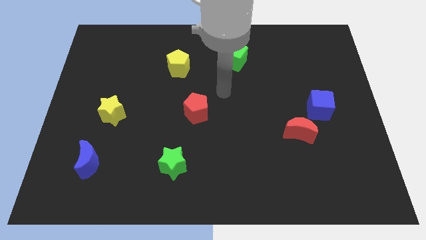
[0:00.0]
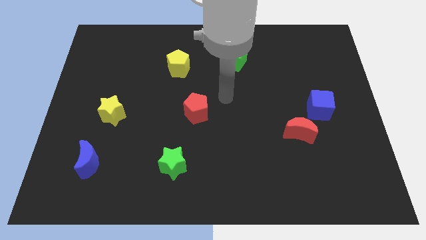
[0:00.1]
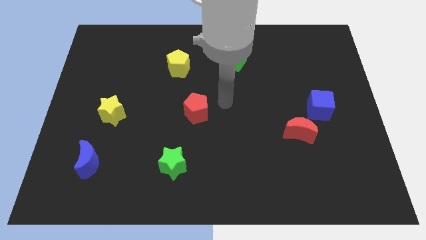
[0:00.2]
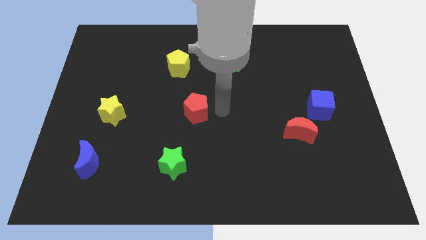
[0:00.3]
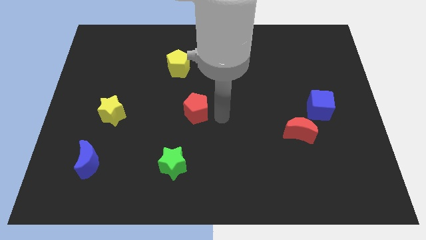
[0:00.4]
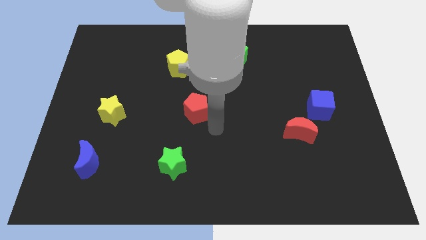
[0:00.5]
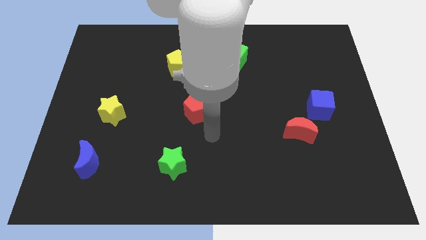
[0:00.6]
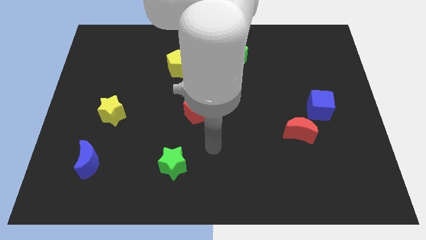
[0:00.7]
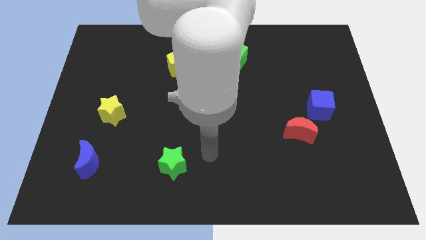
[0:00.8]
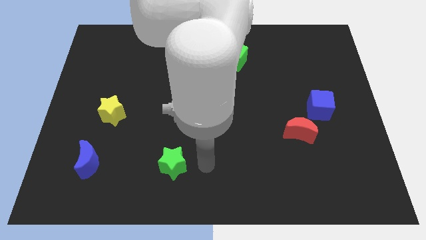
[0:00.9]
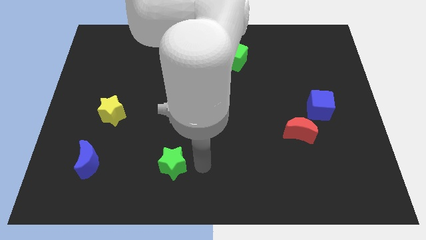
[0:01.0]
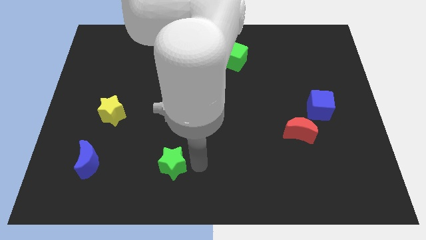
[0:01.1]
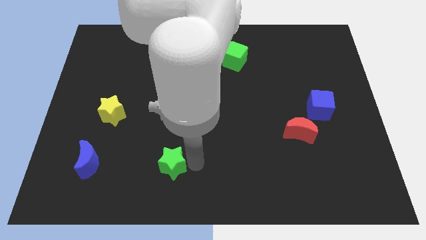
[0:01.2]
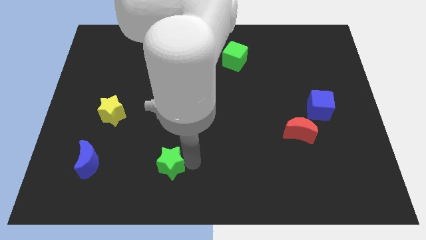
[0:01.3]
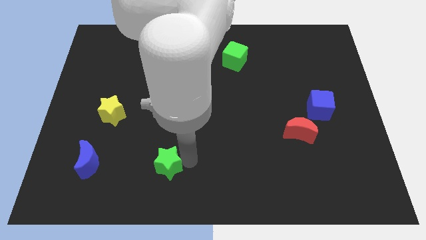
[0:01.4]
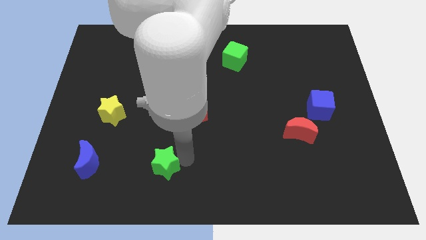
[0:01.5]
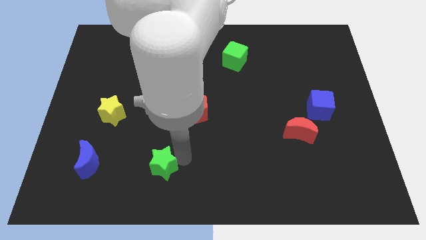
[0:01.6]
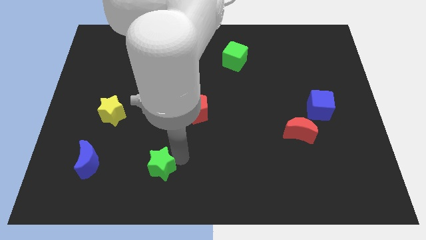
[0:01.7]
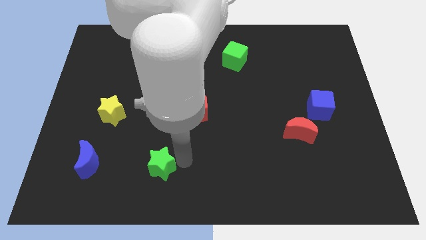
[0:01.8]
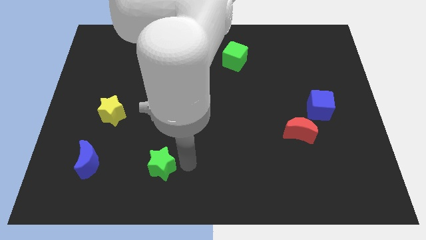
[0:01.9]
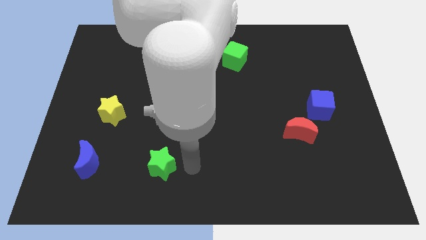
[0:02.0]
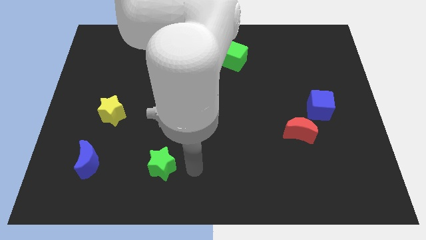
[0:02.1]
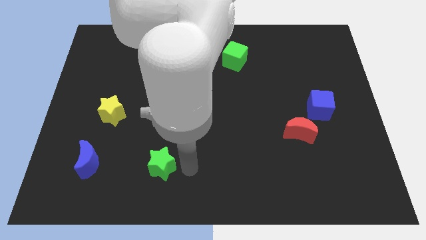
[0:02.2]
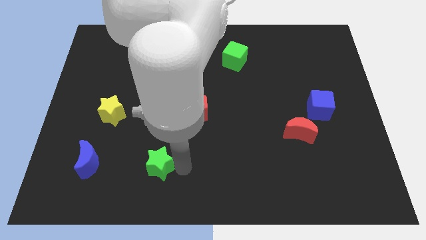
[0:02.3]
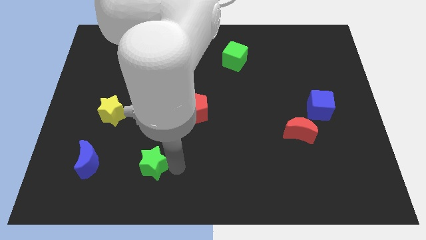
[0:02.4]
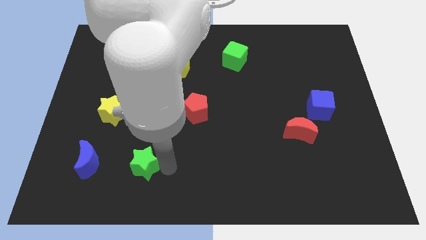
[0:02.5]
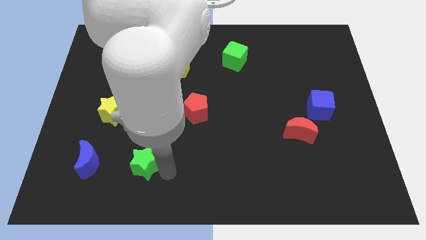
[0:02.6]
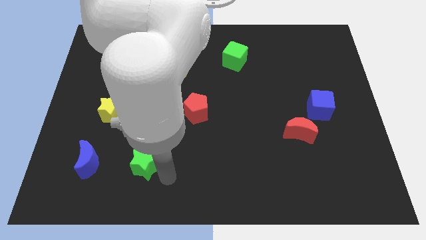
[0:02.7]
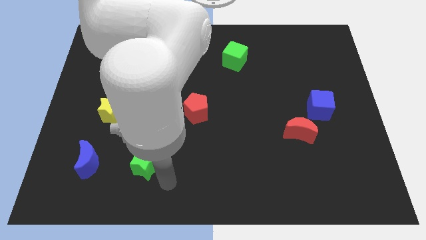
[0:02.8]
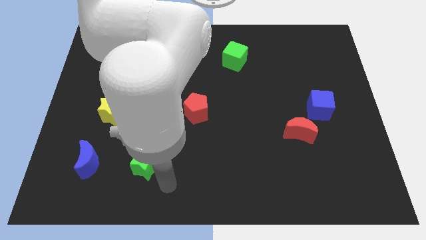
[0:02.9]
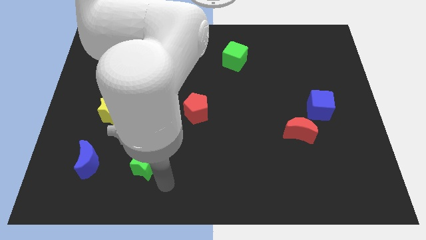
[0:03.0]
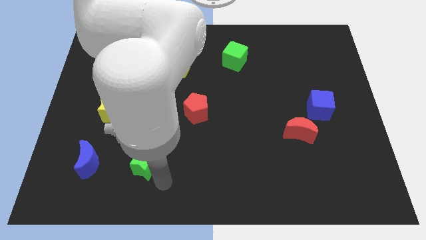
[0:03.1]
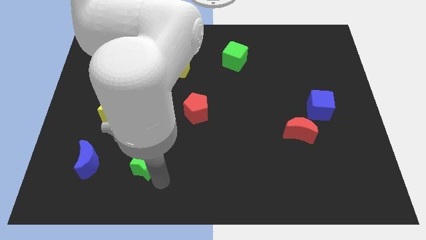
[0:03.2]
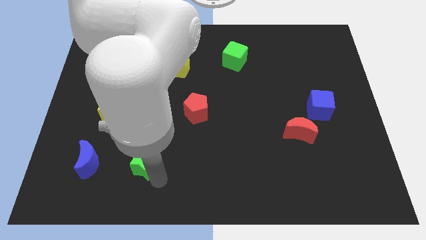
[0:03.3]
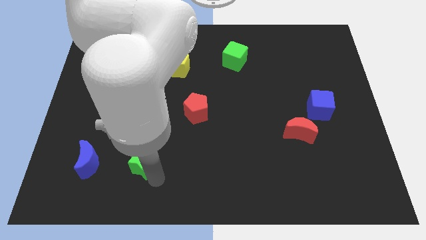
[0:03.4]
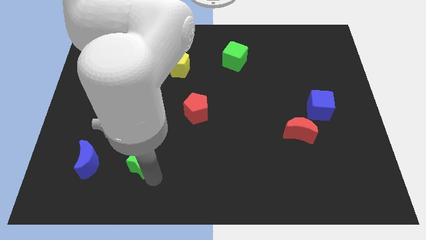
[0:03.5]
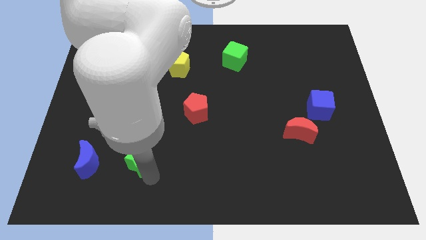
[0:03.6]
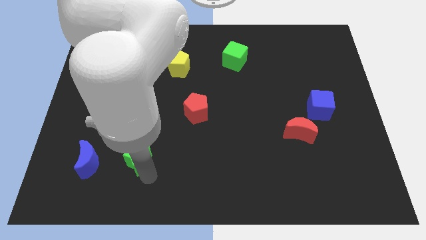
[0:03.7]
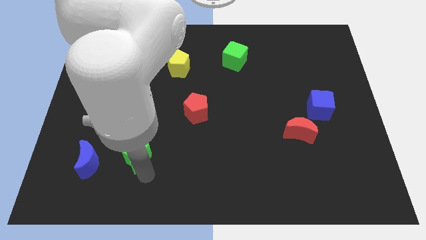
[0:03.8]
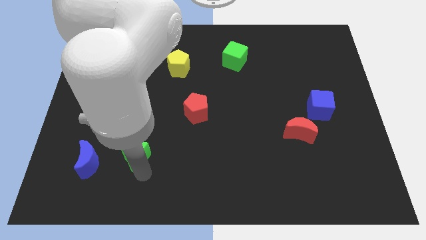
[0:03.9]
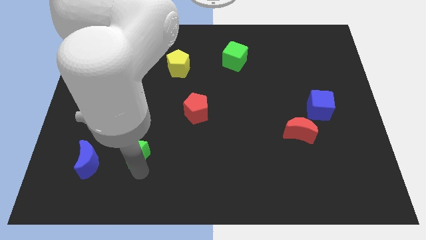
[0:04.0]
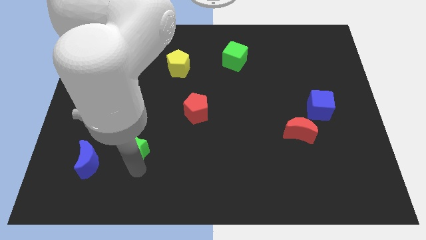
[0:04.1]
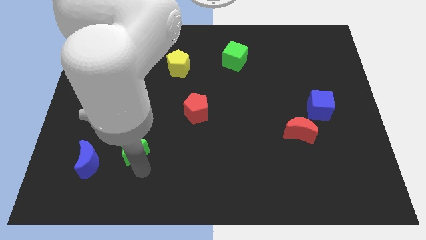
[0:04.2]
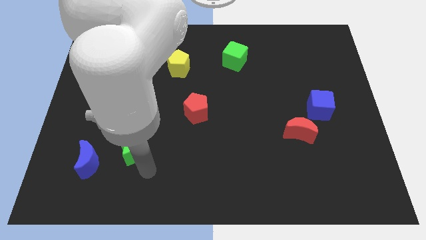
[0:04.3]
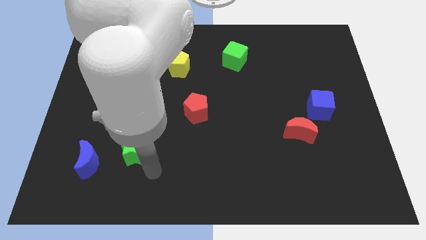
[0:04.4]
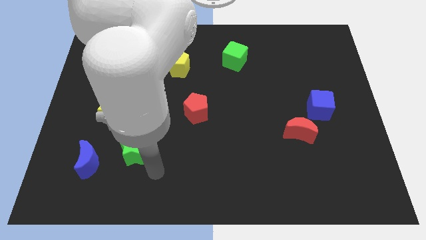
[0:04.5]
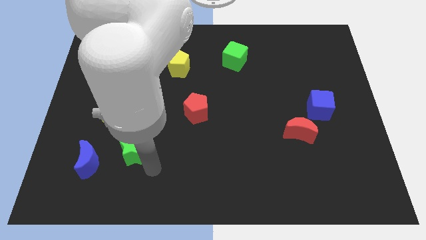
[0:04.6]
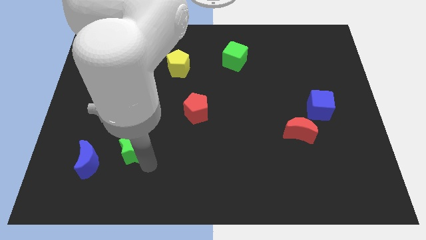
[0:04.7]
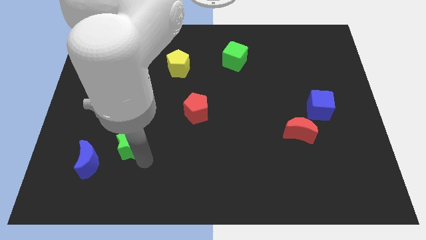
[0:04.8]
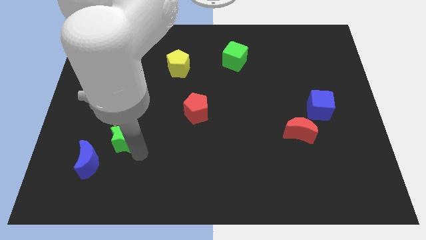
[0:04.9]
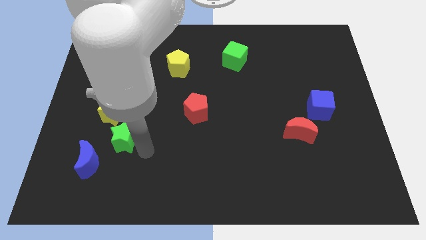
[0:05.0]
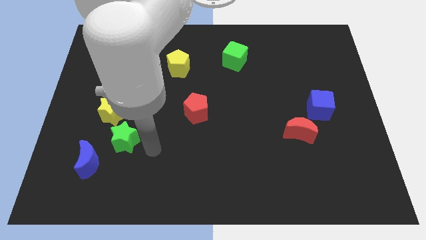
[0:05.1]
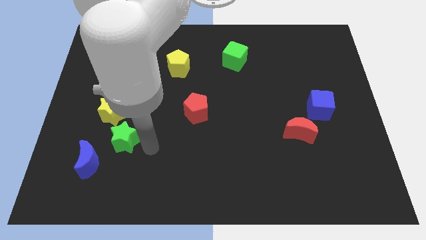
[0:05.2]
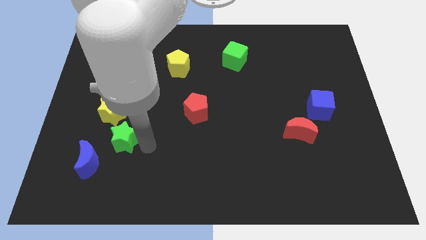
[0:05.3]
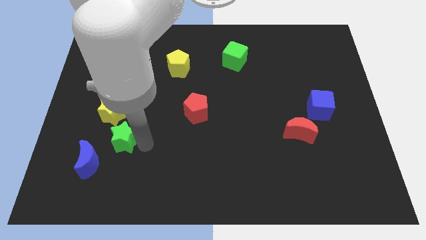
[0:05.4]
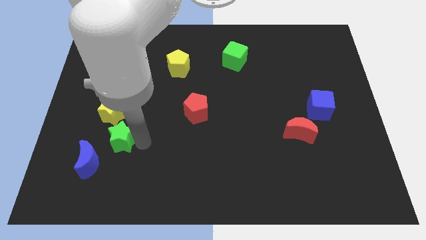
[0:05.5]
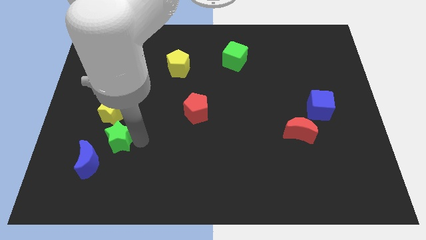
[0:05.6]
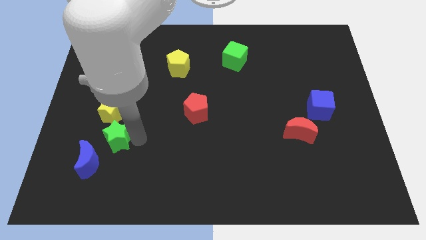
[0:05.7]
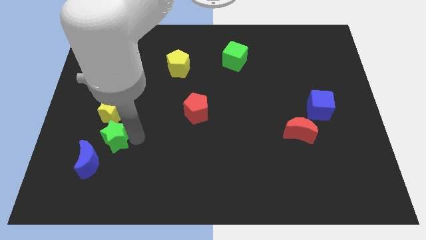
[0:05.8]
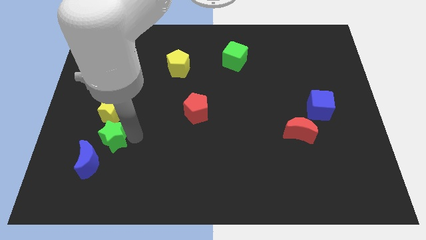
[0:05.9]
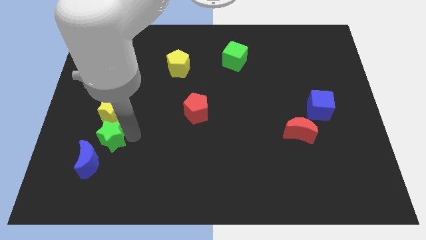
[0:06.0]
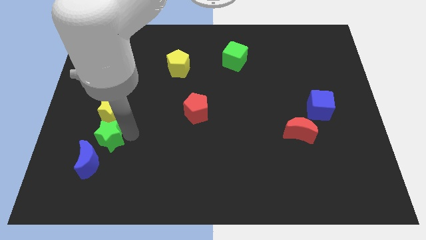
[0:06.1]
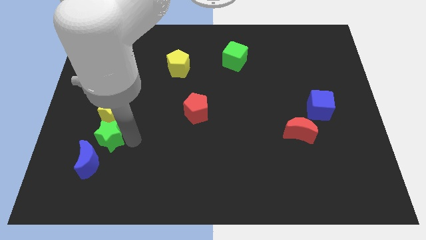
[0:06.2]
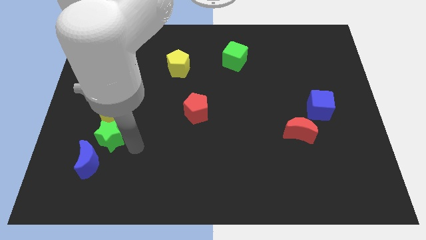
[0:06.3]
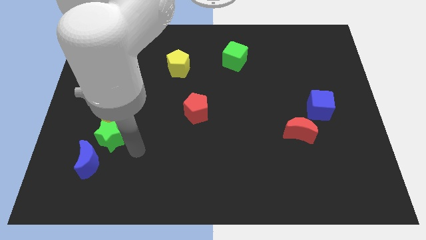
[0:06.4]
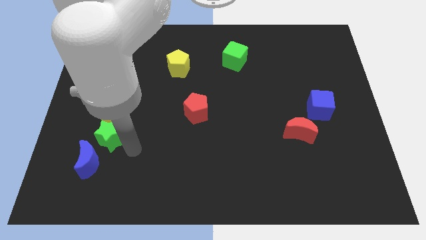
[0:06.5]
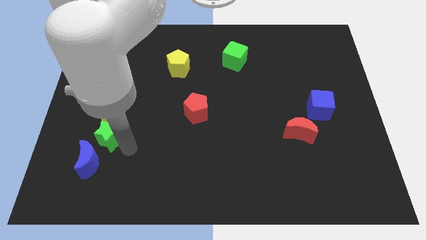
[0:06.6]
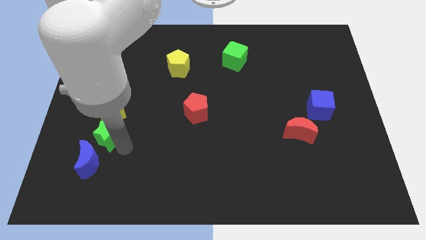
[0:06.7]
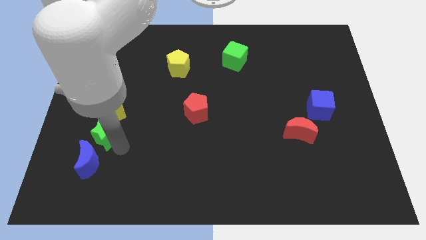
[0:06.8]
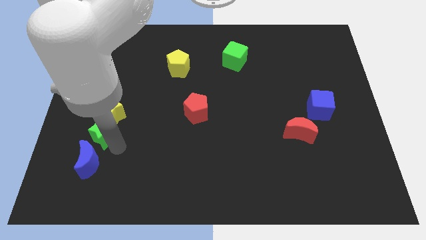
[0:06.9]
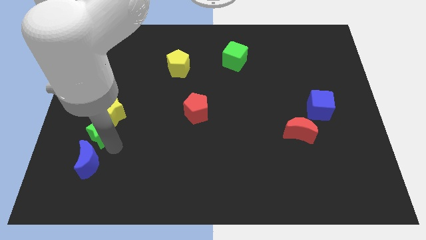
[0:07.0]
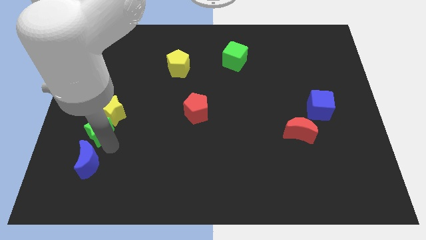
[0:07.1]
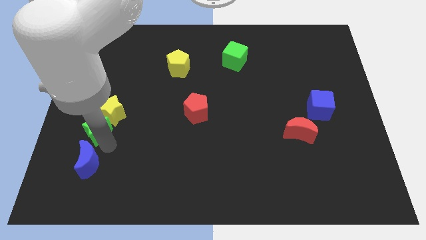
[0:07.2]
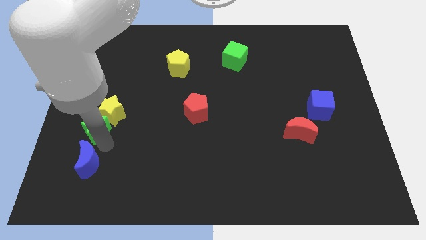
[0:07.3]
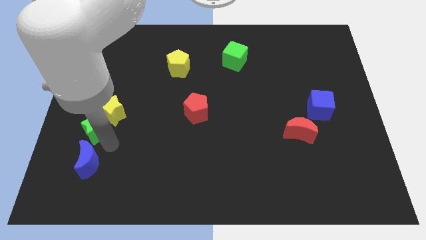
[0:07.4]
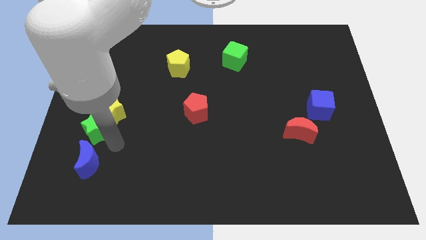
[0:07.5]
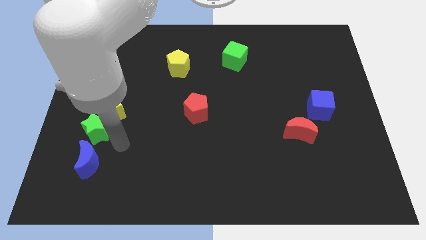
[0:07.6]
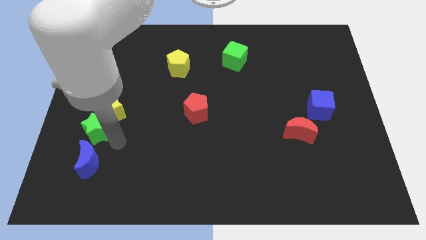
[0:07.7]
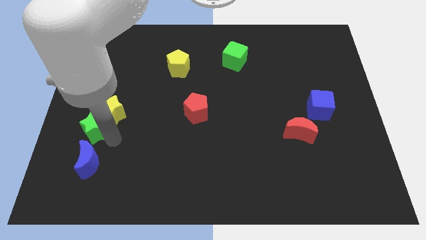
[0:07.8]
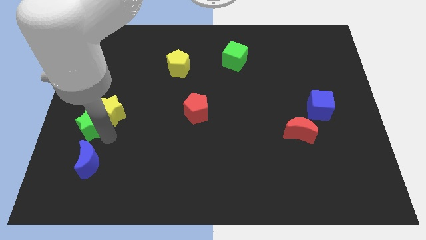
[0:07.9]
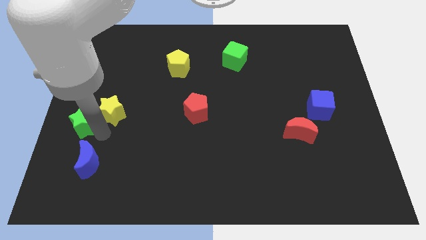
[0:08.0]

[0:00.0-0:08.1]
put the green star to the center left
